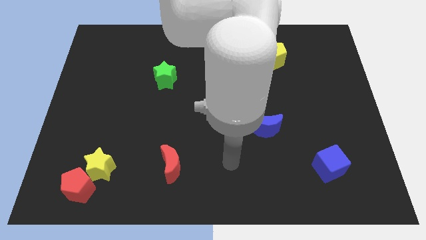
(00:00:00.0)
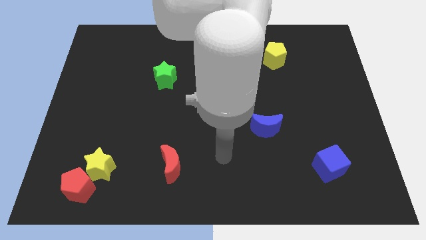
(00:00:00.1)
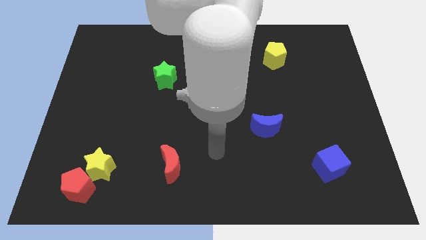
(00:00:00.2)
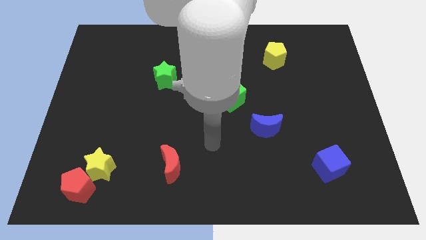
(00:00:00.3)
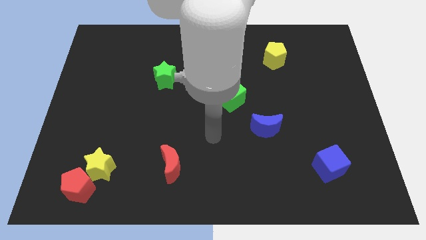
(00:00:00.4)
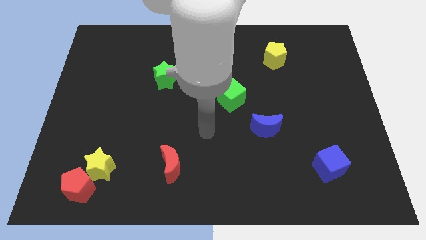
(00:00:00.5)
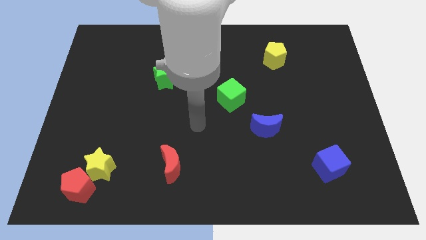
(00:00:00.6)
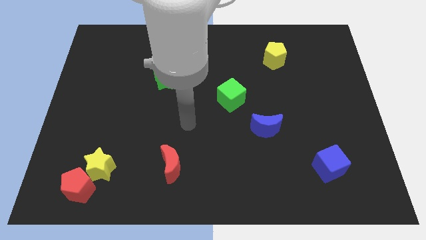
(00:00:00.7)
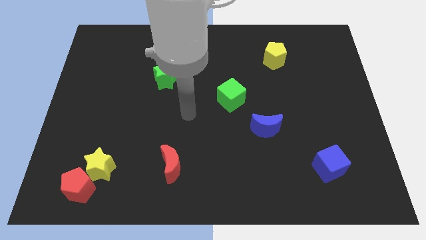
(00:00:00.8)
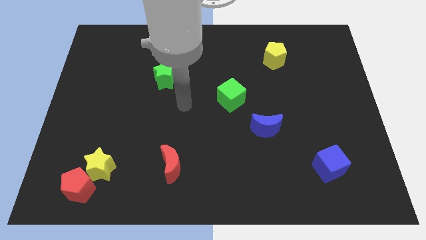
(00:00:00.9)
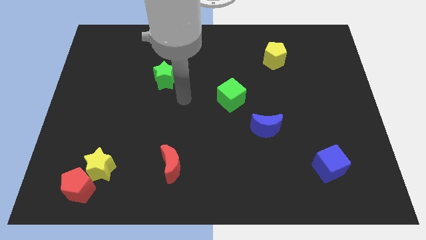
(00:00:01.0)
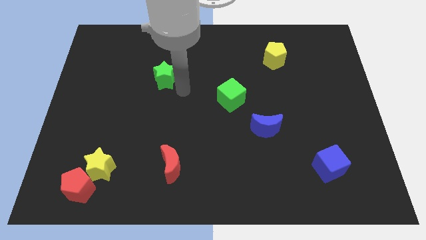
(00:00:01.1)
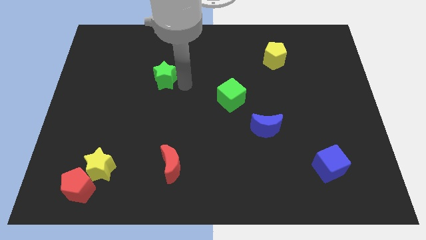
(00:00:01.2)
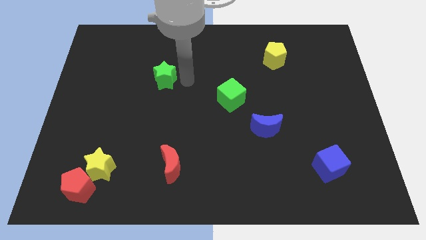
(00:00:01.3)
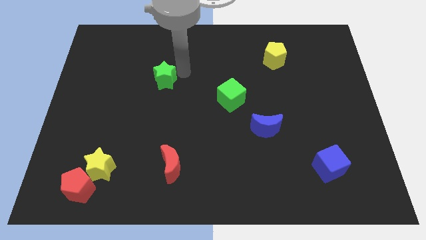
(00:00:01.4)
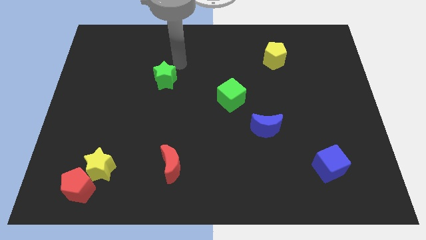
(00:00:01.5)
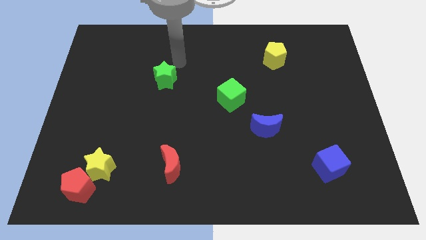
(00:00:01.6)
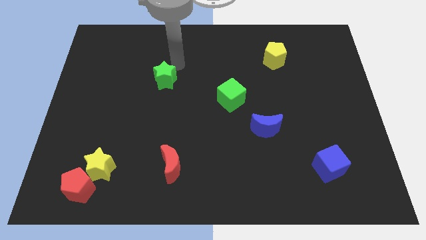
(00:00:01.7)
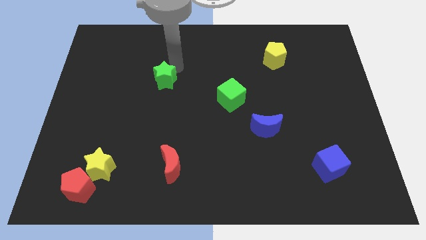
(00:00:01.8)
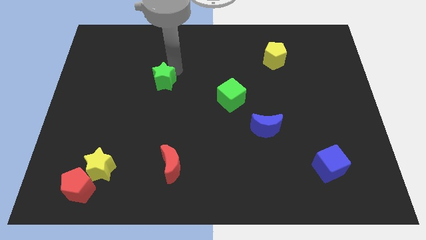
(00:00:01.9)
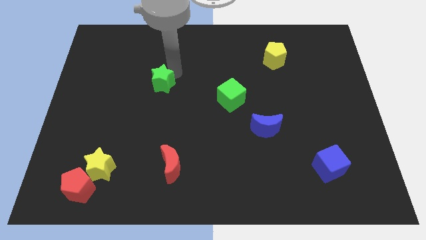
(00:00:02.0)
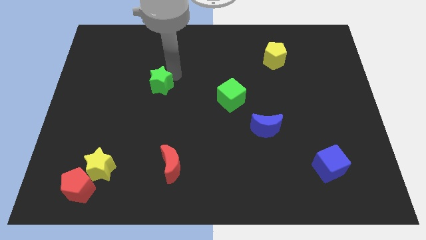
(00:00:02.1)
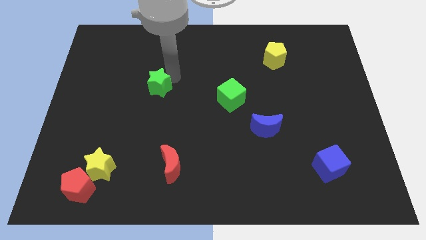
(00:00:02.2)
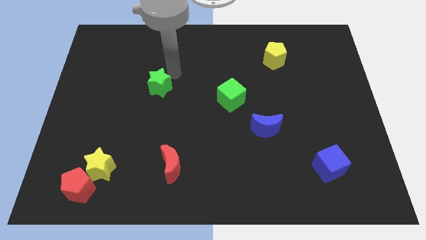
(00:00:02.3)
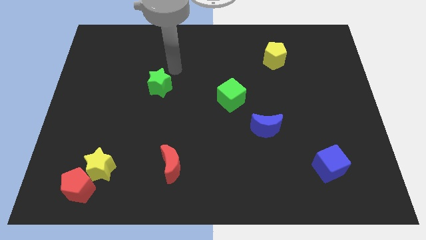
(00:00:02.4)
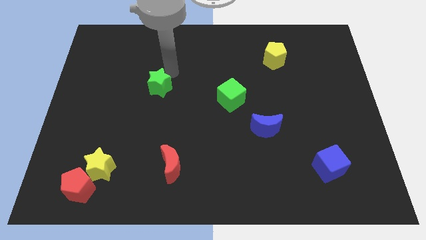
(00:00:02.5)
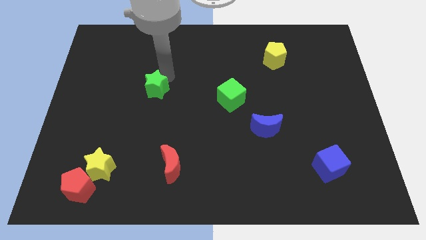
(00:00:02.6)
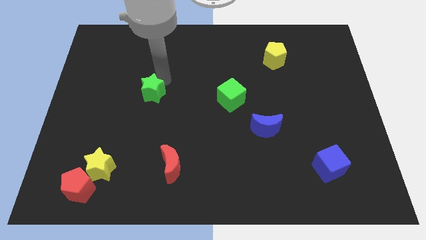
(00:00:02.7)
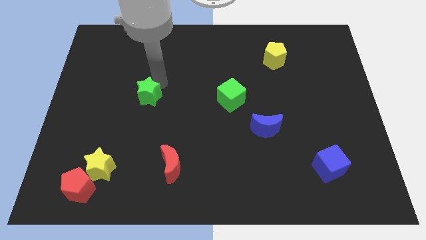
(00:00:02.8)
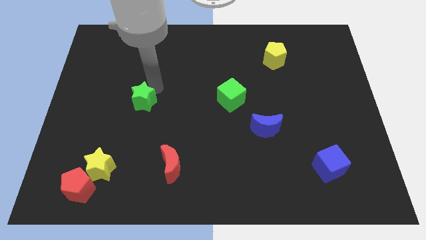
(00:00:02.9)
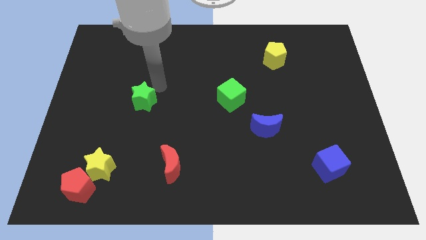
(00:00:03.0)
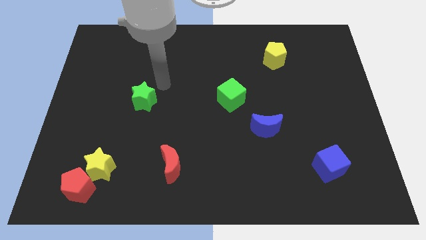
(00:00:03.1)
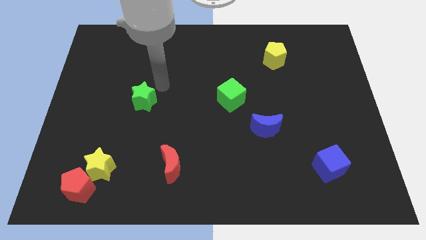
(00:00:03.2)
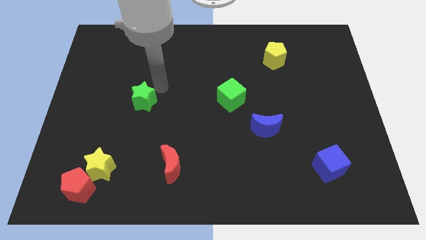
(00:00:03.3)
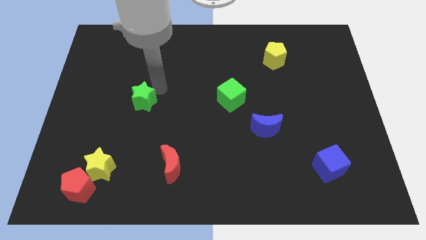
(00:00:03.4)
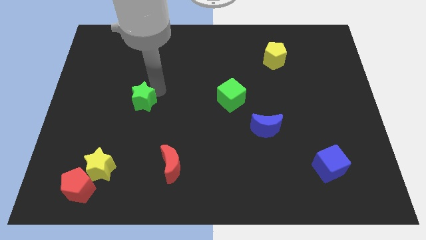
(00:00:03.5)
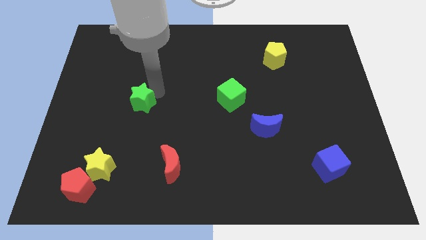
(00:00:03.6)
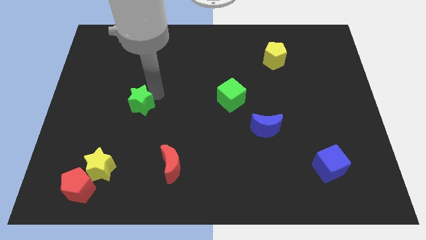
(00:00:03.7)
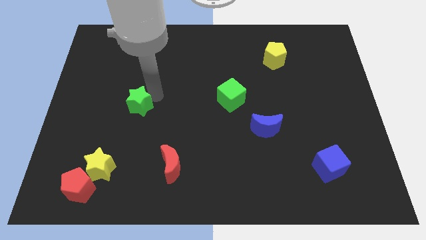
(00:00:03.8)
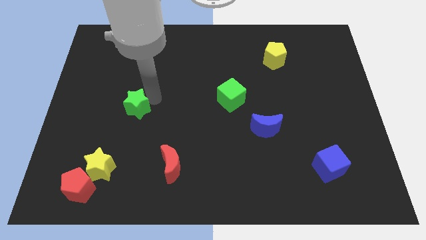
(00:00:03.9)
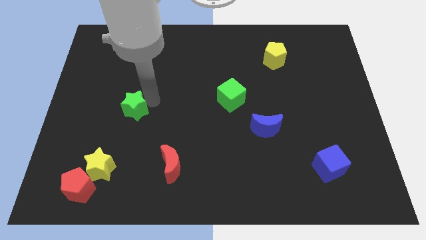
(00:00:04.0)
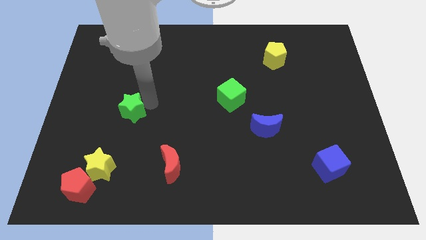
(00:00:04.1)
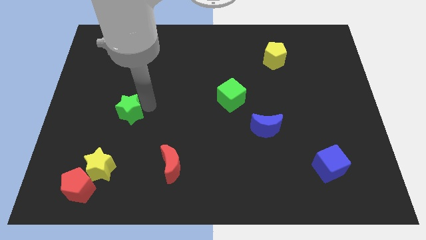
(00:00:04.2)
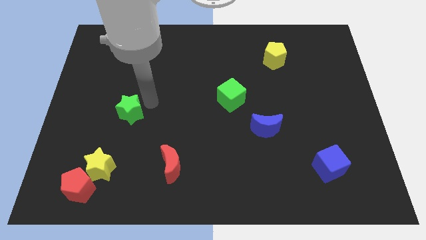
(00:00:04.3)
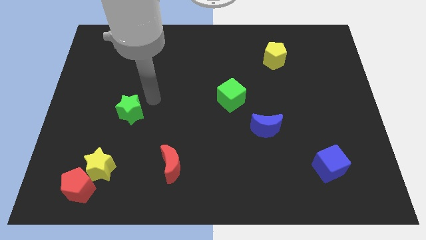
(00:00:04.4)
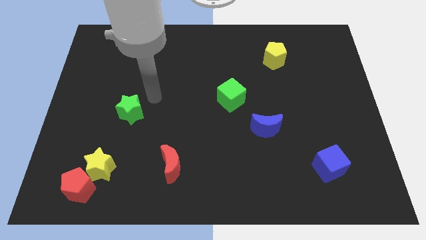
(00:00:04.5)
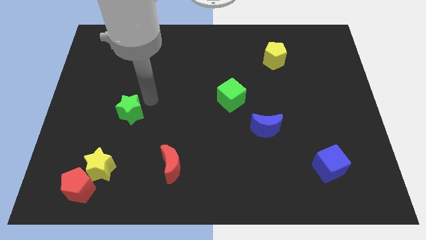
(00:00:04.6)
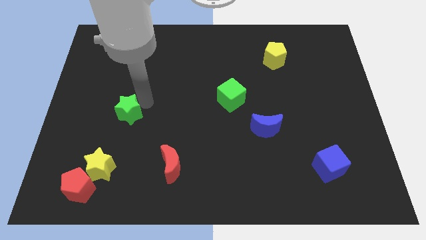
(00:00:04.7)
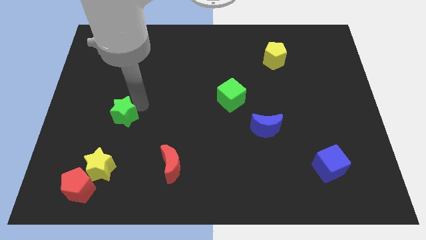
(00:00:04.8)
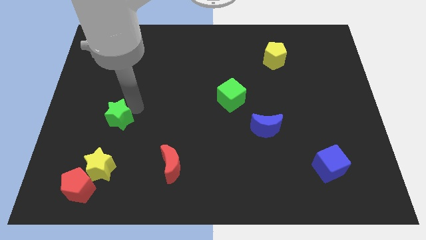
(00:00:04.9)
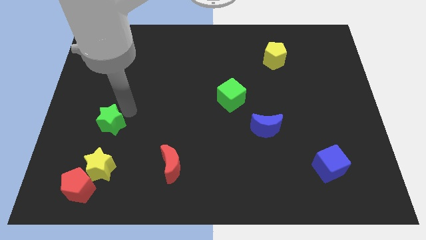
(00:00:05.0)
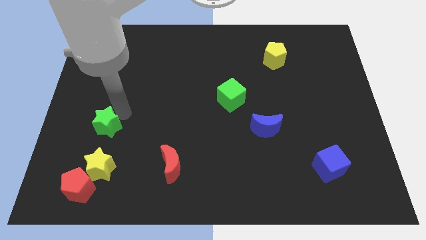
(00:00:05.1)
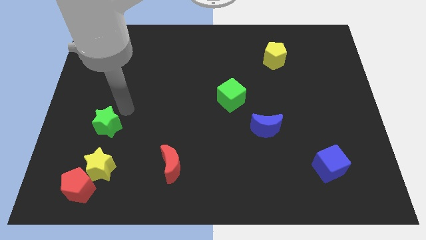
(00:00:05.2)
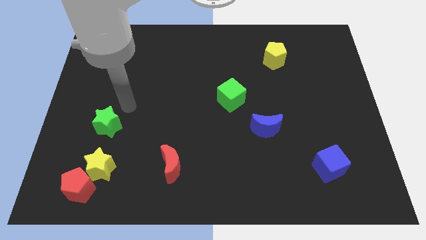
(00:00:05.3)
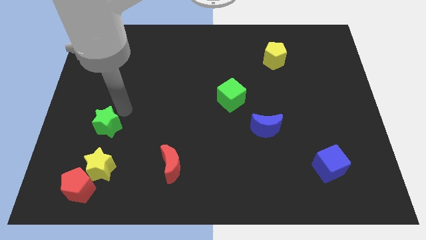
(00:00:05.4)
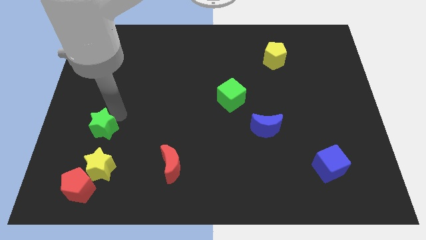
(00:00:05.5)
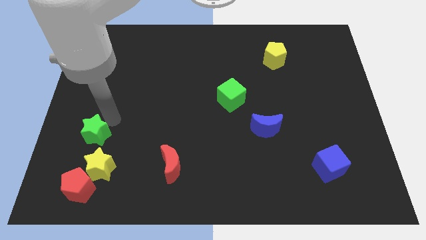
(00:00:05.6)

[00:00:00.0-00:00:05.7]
move the green star to the top left of the yellow star
